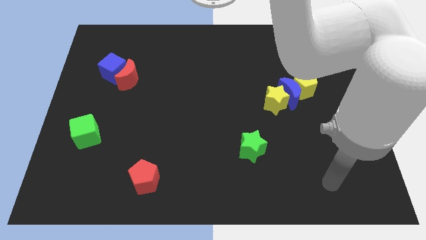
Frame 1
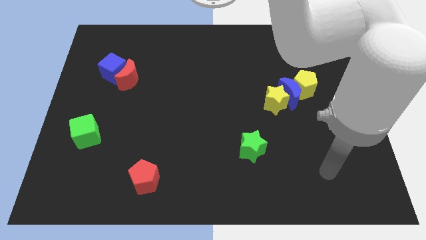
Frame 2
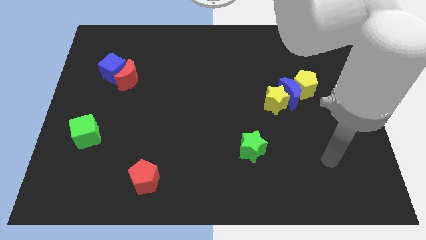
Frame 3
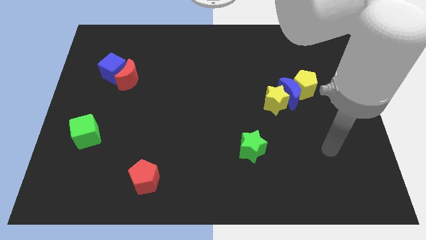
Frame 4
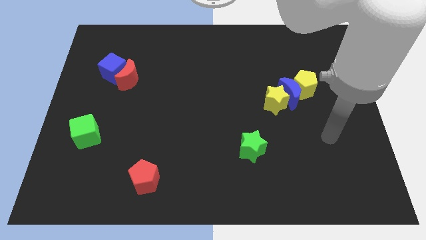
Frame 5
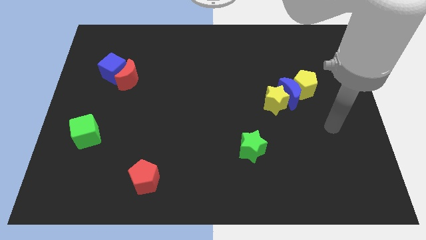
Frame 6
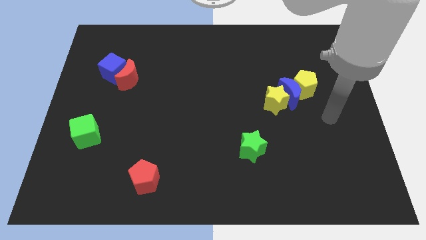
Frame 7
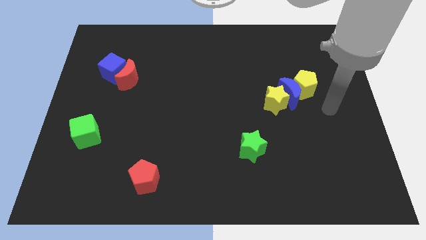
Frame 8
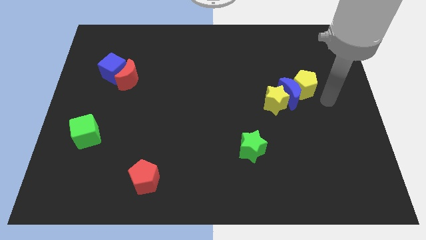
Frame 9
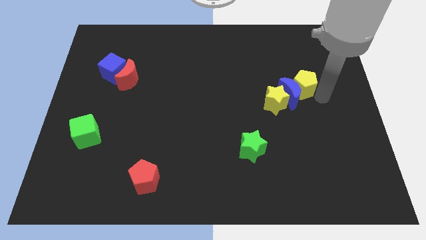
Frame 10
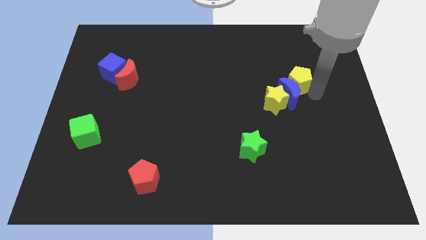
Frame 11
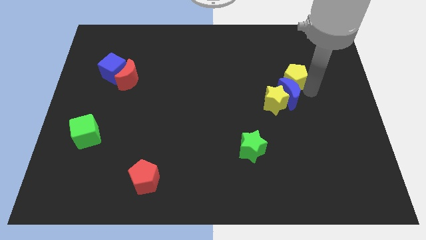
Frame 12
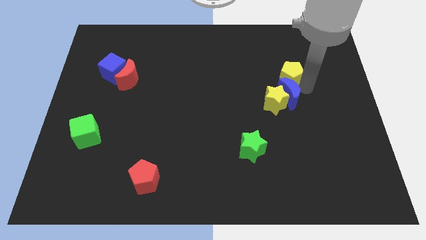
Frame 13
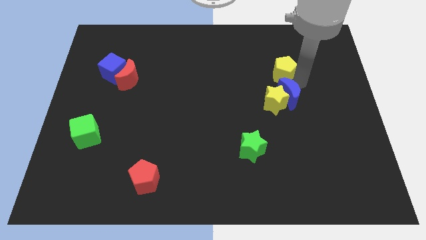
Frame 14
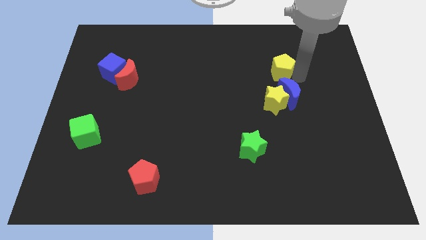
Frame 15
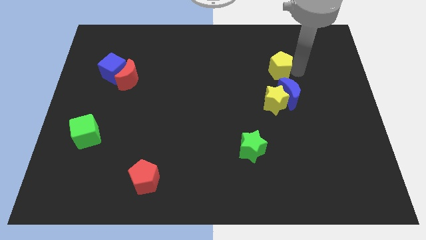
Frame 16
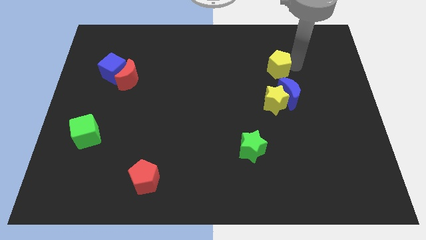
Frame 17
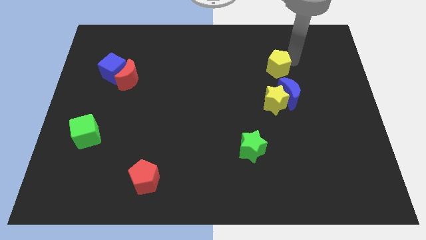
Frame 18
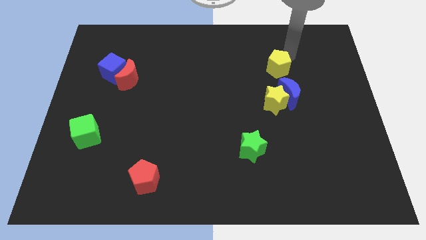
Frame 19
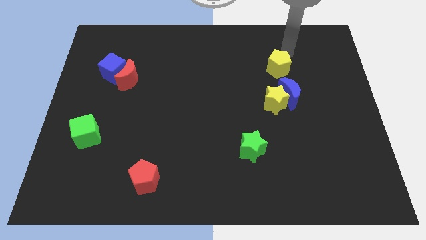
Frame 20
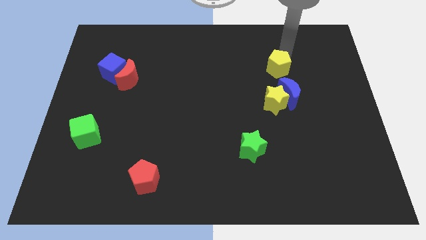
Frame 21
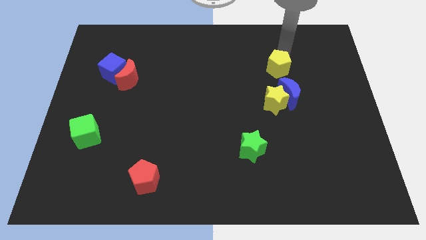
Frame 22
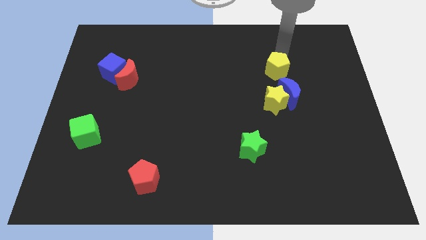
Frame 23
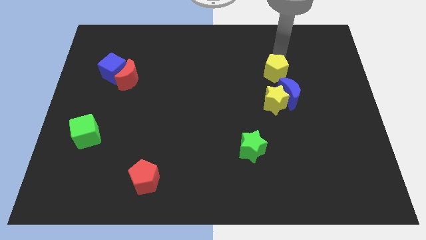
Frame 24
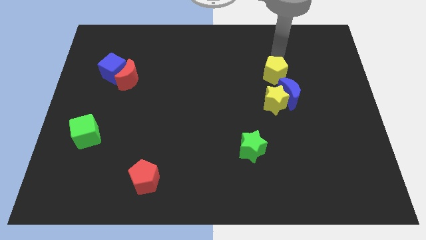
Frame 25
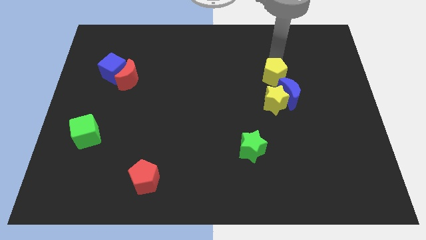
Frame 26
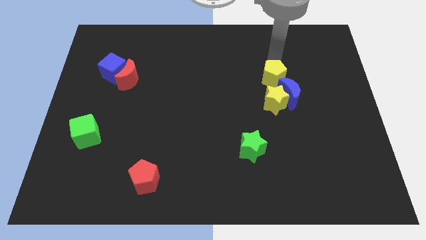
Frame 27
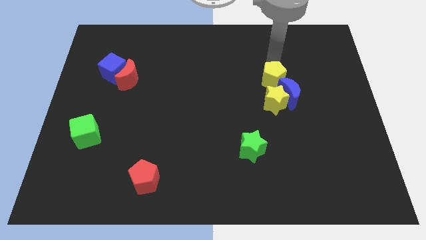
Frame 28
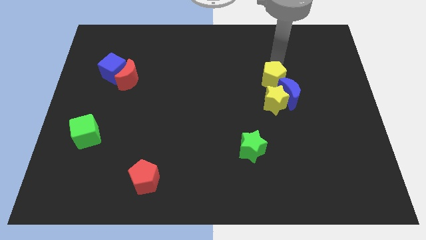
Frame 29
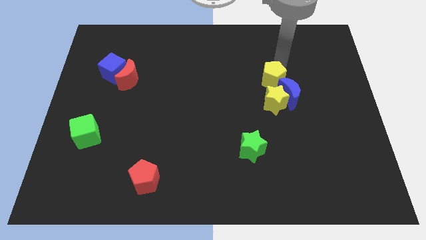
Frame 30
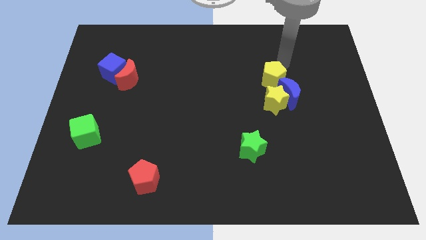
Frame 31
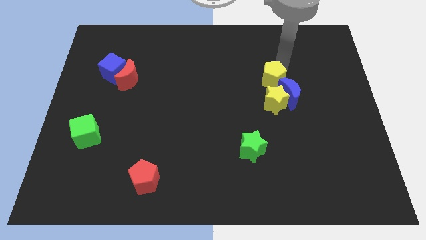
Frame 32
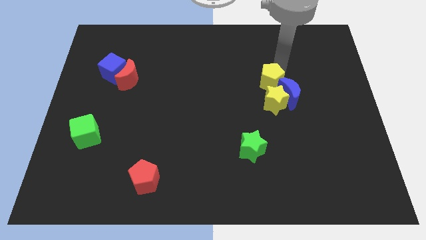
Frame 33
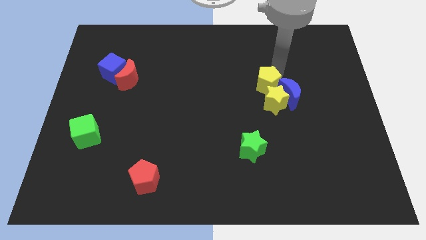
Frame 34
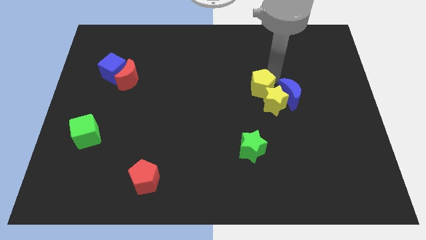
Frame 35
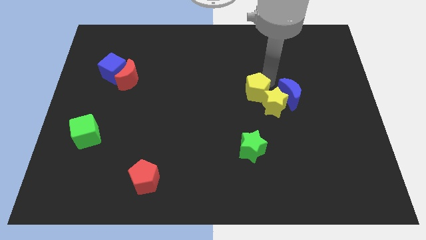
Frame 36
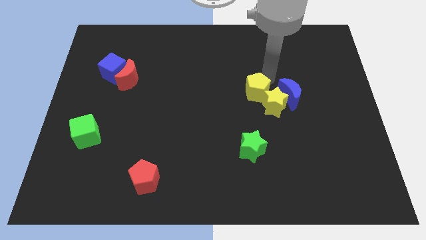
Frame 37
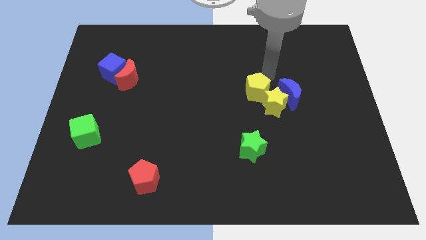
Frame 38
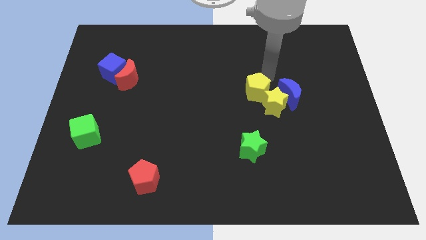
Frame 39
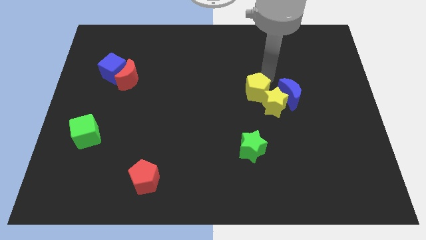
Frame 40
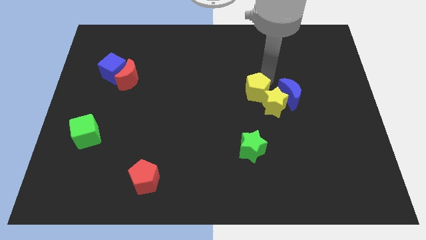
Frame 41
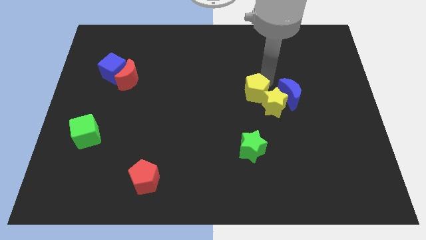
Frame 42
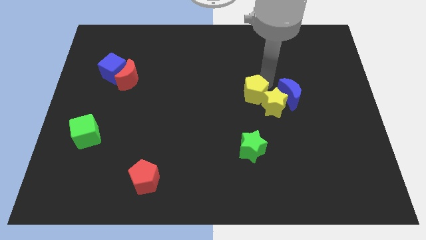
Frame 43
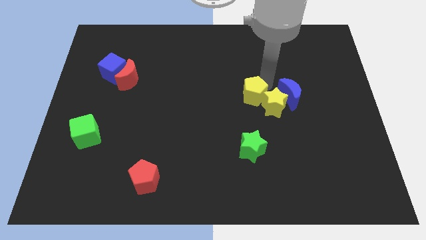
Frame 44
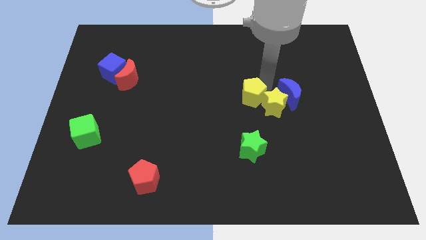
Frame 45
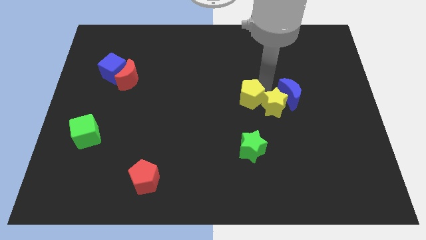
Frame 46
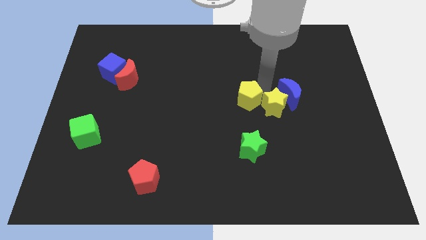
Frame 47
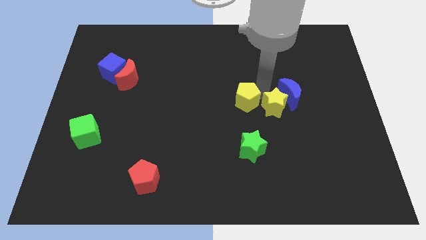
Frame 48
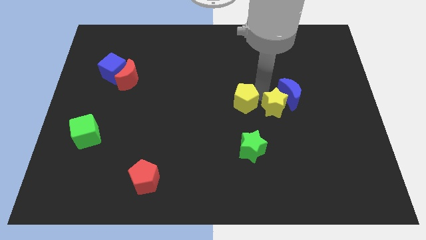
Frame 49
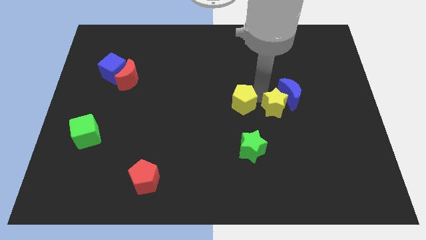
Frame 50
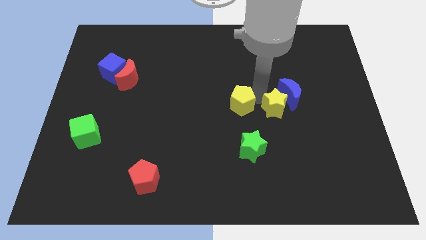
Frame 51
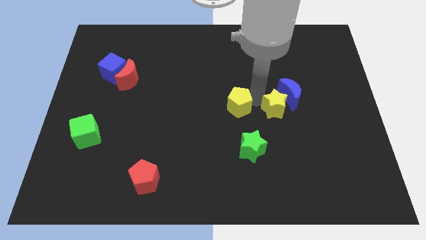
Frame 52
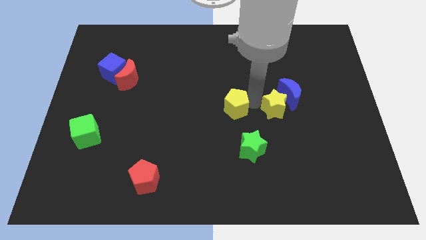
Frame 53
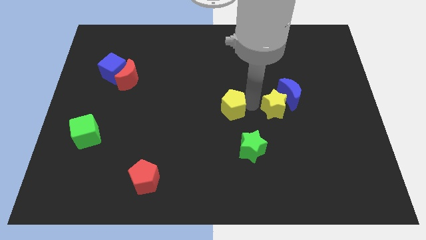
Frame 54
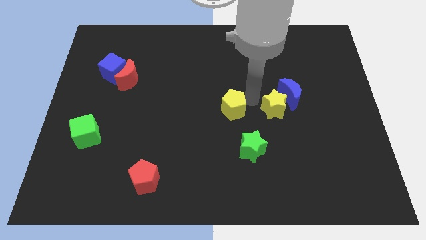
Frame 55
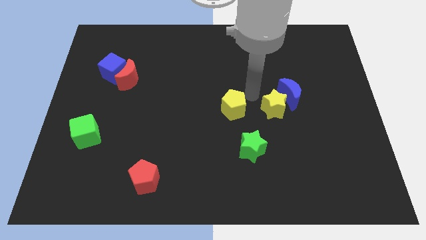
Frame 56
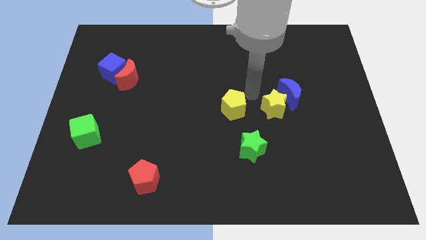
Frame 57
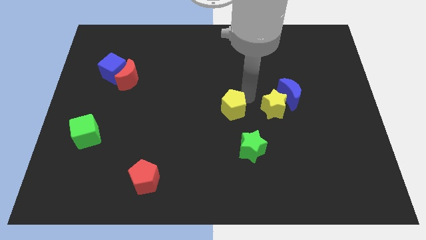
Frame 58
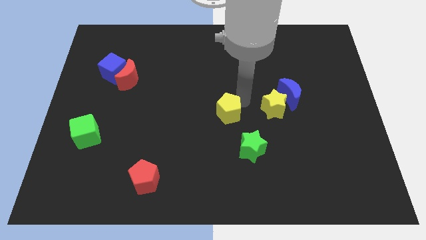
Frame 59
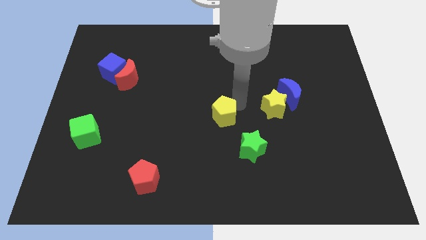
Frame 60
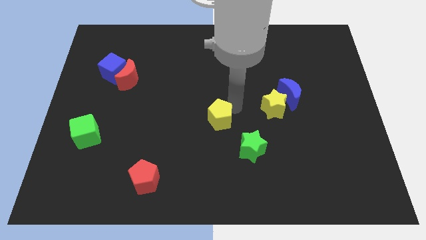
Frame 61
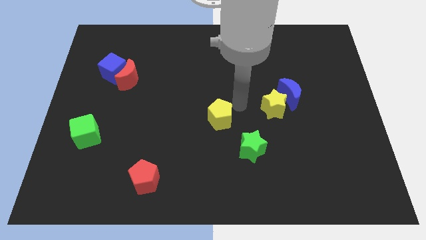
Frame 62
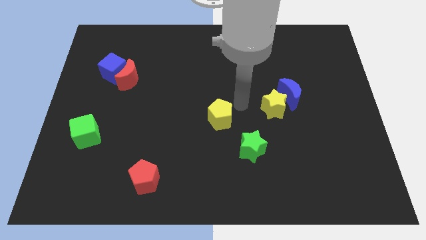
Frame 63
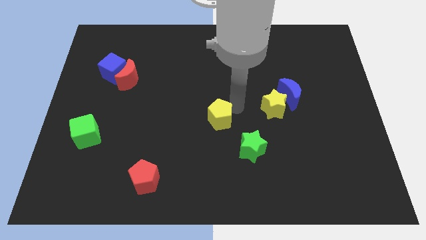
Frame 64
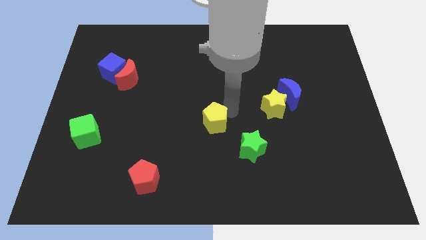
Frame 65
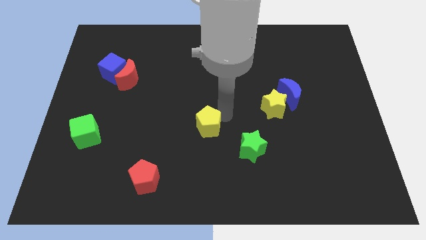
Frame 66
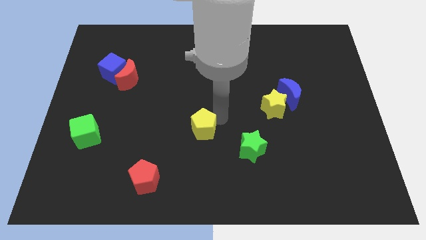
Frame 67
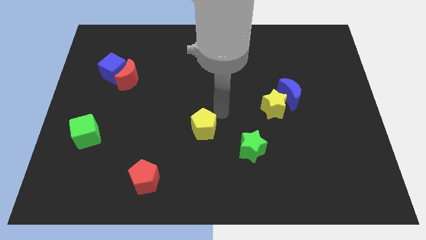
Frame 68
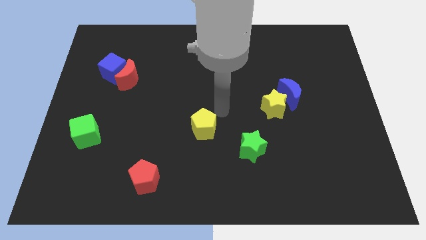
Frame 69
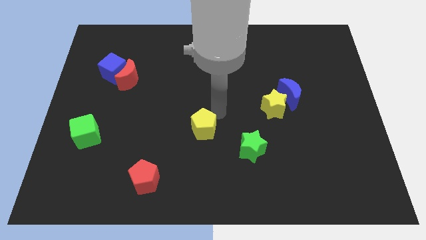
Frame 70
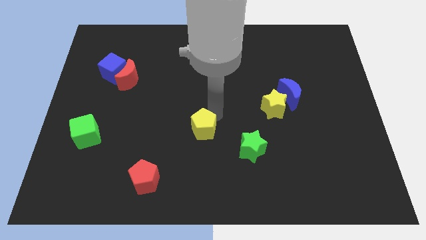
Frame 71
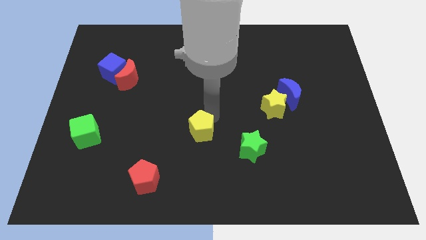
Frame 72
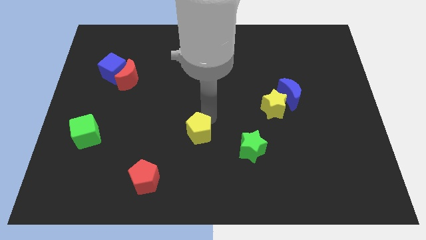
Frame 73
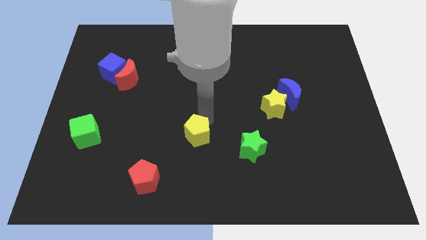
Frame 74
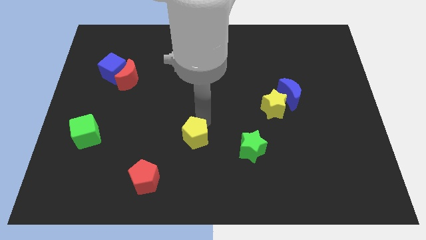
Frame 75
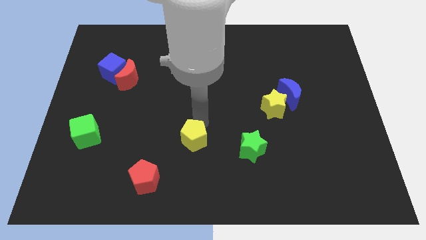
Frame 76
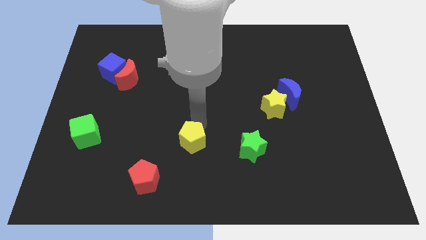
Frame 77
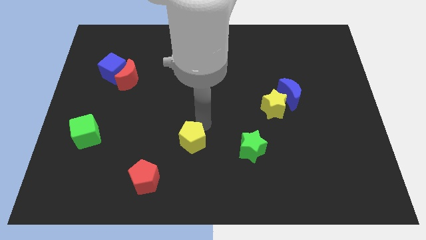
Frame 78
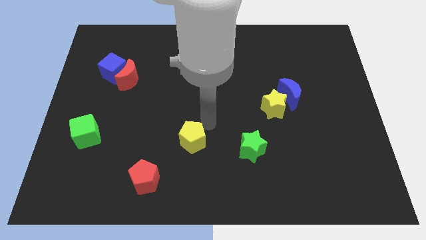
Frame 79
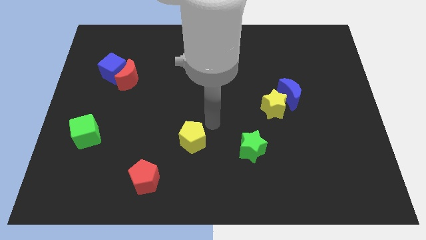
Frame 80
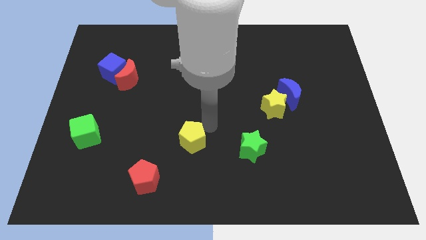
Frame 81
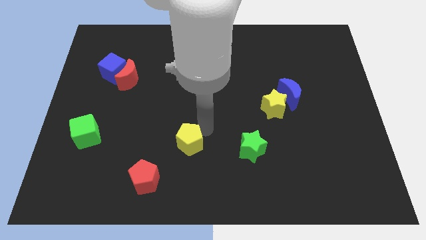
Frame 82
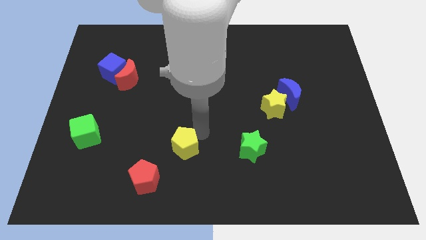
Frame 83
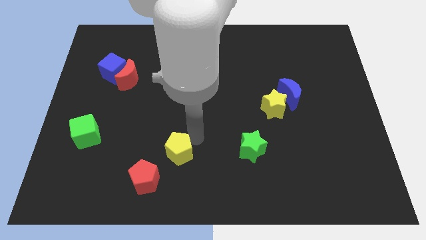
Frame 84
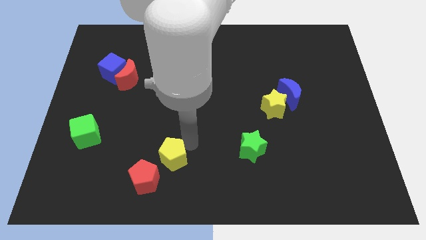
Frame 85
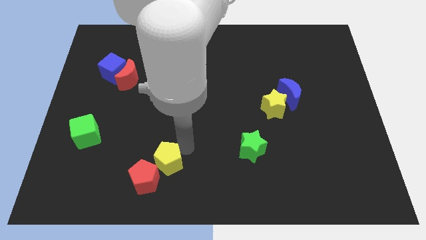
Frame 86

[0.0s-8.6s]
slide the yellow pentagon towards the red pentagon
